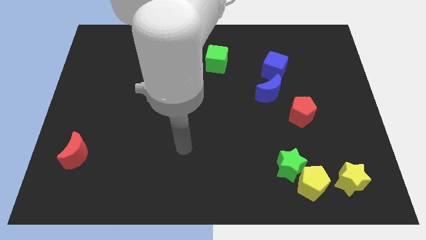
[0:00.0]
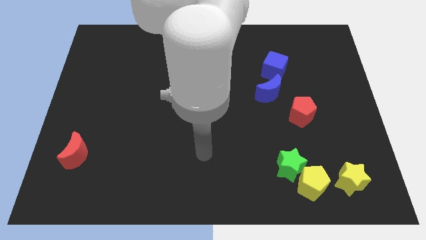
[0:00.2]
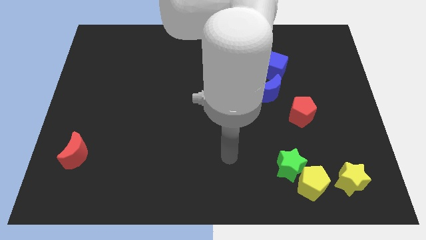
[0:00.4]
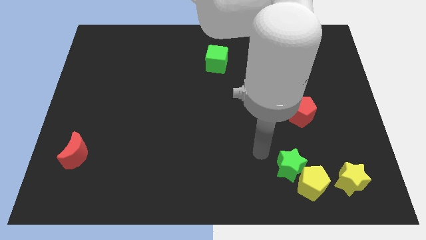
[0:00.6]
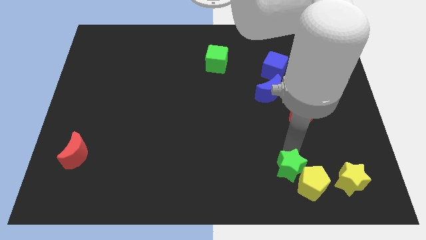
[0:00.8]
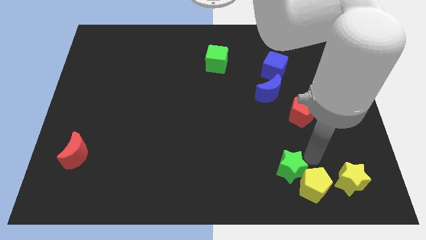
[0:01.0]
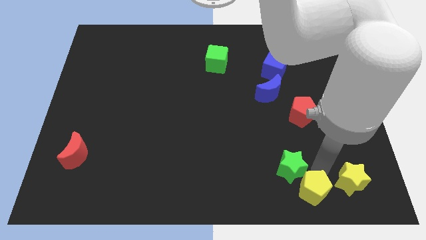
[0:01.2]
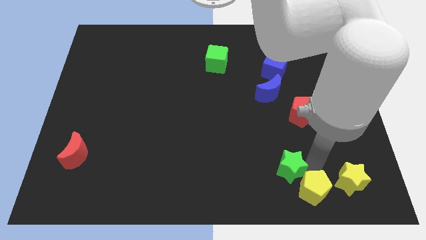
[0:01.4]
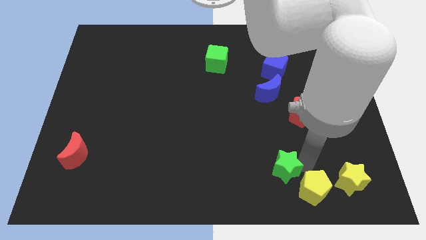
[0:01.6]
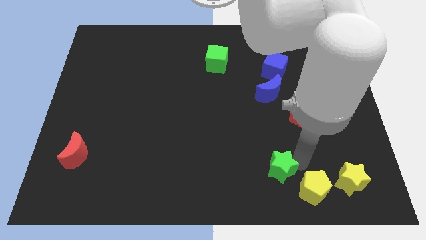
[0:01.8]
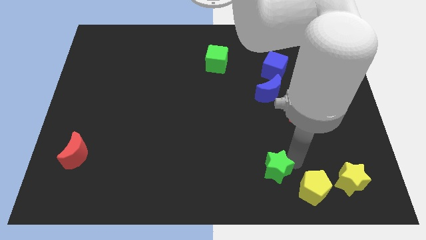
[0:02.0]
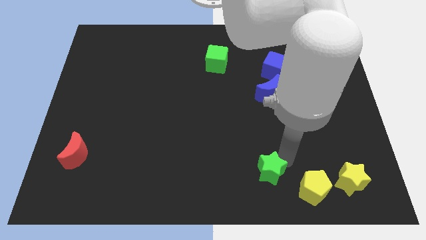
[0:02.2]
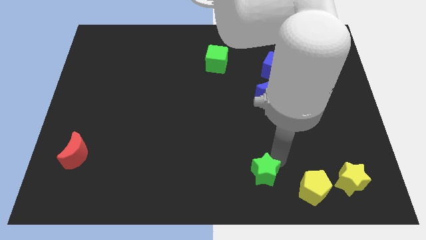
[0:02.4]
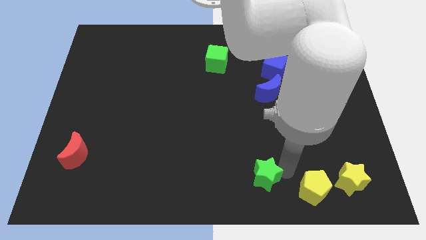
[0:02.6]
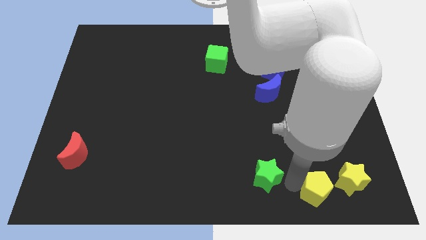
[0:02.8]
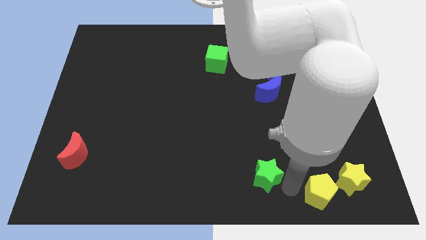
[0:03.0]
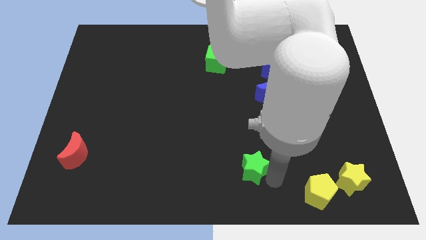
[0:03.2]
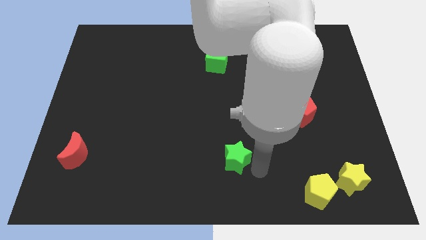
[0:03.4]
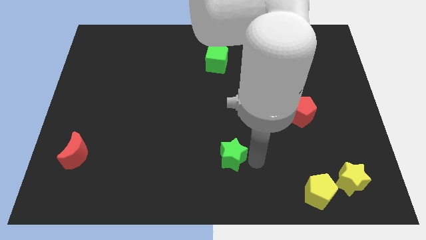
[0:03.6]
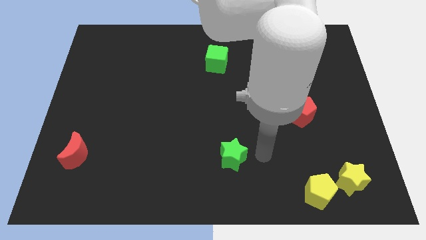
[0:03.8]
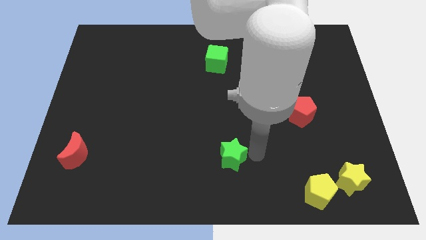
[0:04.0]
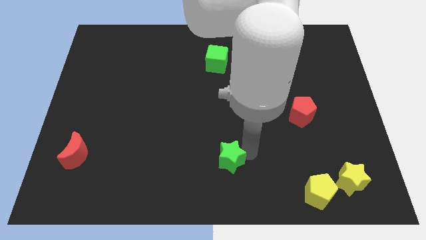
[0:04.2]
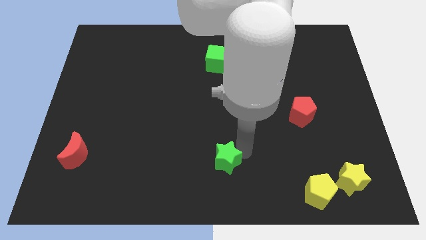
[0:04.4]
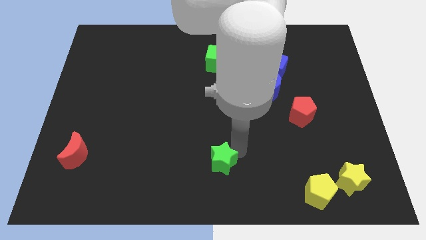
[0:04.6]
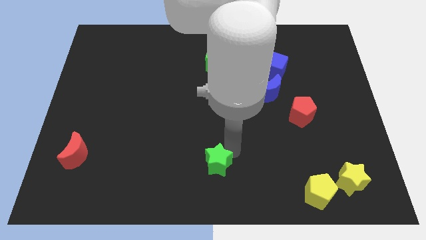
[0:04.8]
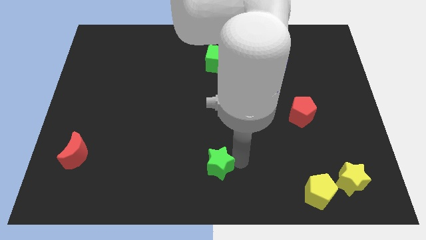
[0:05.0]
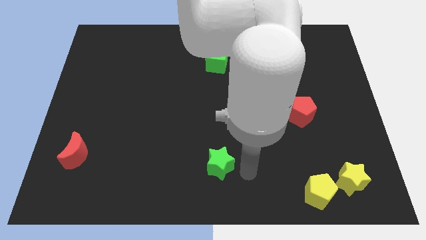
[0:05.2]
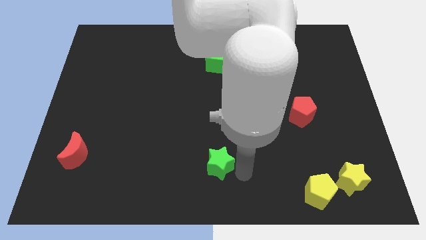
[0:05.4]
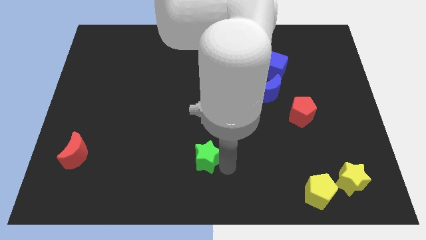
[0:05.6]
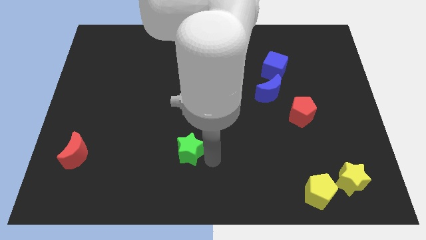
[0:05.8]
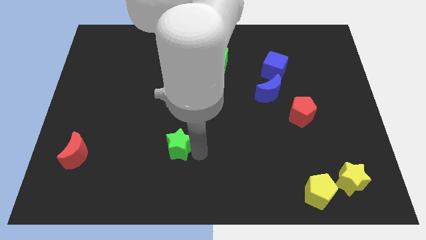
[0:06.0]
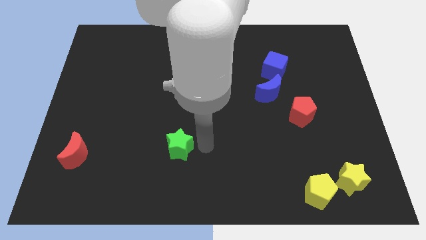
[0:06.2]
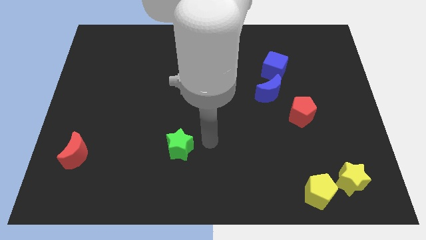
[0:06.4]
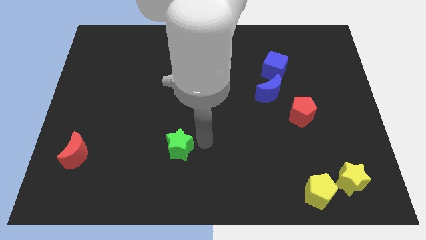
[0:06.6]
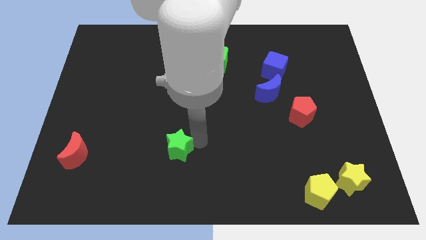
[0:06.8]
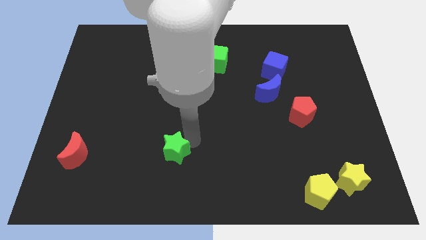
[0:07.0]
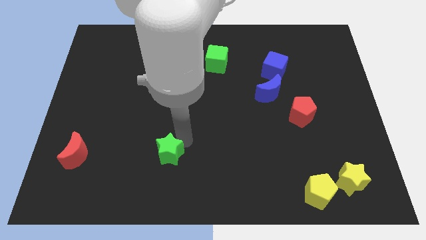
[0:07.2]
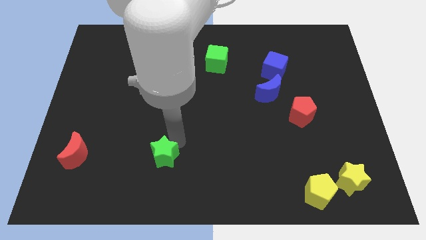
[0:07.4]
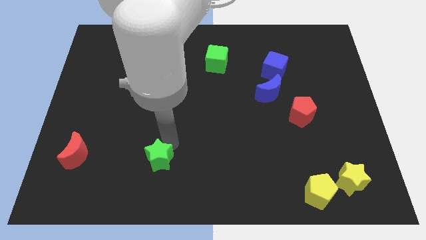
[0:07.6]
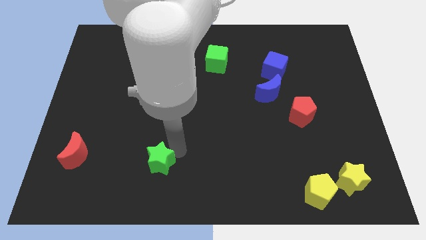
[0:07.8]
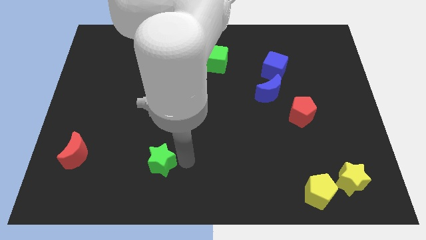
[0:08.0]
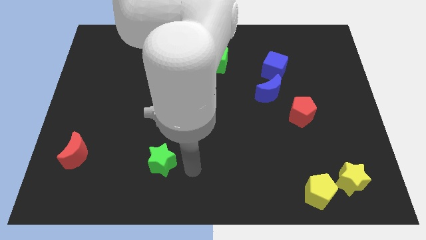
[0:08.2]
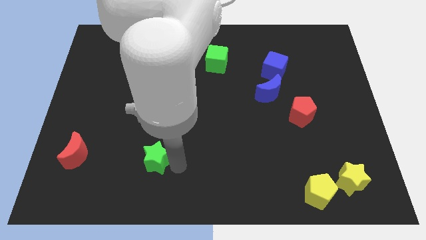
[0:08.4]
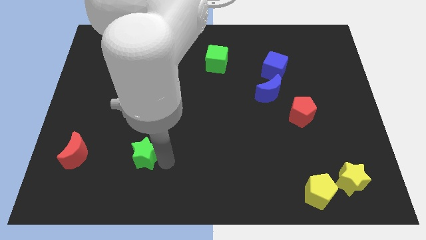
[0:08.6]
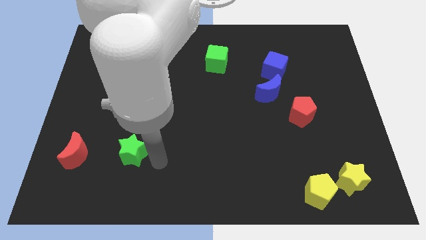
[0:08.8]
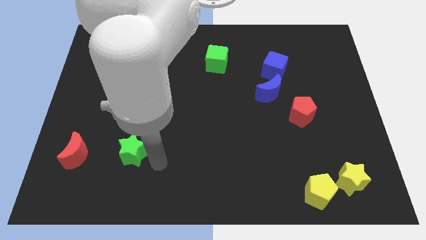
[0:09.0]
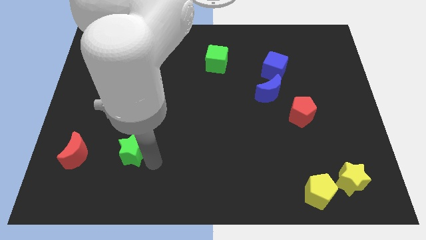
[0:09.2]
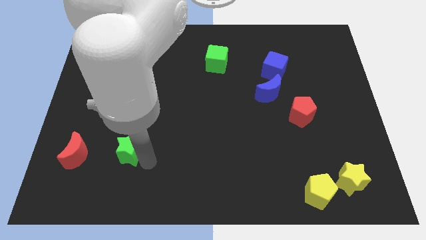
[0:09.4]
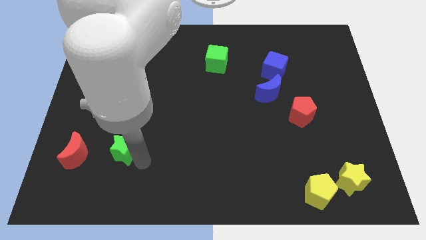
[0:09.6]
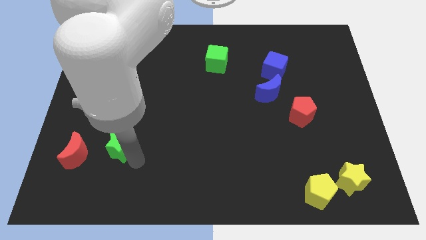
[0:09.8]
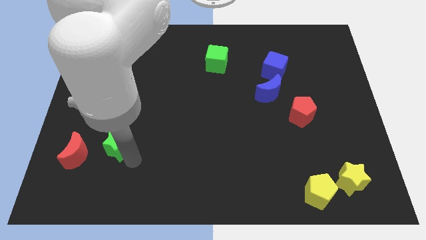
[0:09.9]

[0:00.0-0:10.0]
push the green star to the top right of the red moon

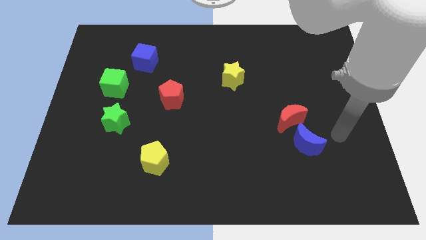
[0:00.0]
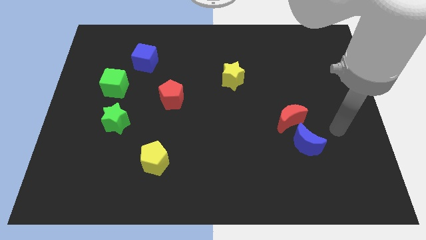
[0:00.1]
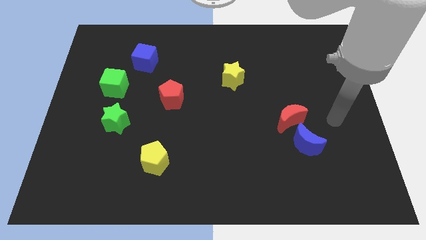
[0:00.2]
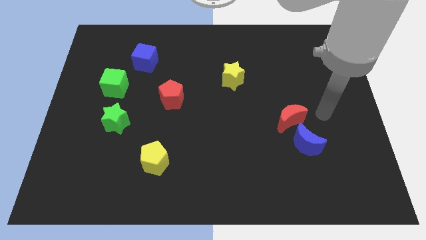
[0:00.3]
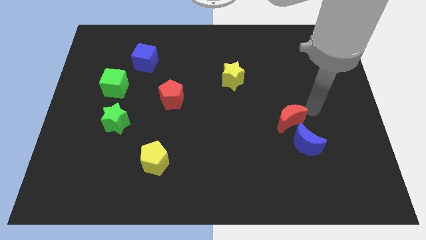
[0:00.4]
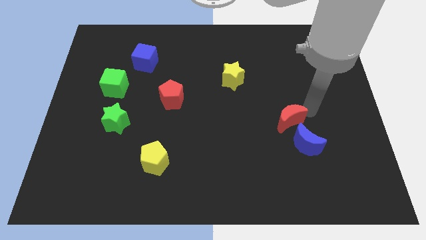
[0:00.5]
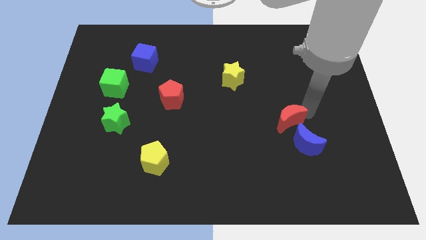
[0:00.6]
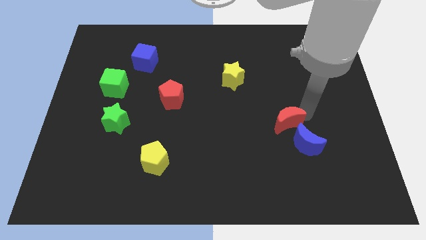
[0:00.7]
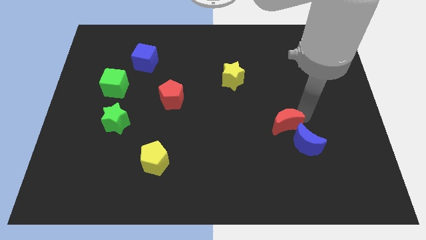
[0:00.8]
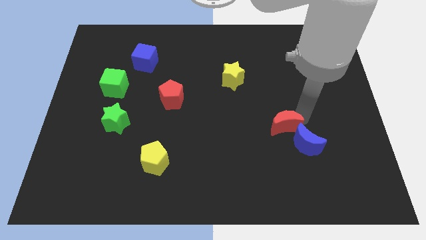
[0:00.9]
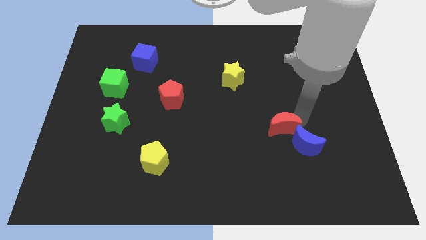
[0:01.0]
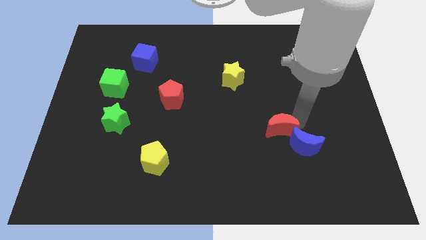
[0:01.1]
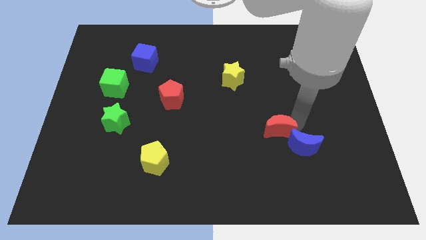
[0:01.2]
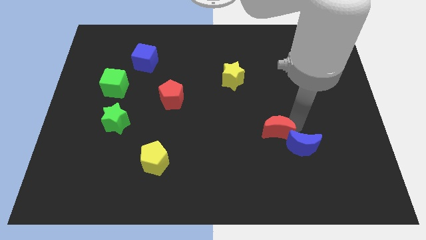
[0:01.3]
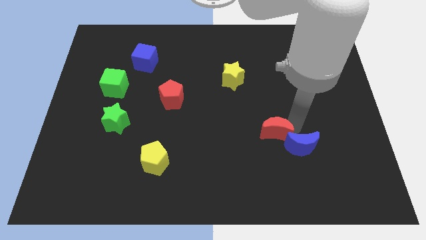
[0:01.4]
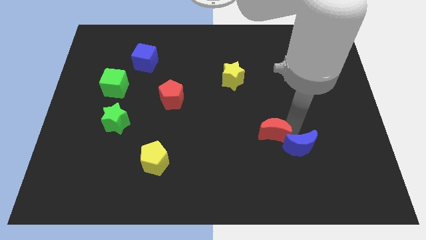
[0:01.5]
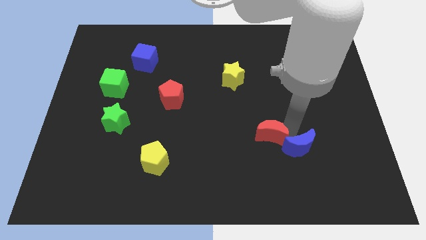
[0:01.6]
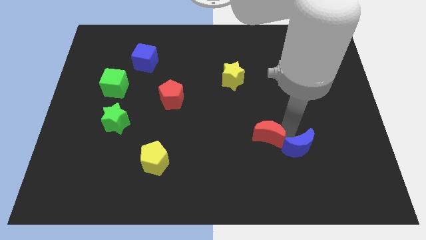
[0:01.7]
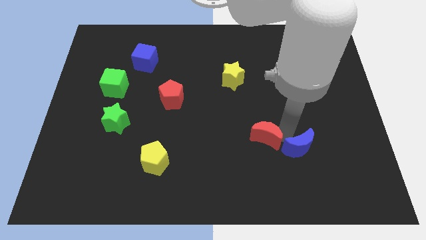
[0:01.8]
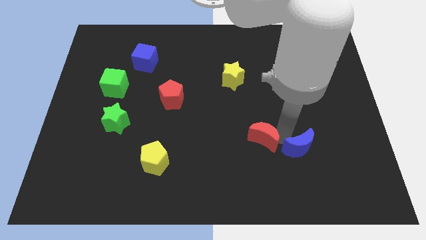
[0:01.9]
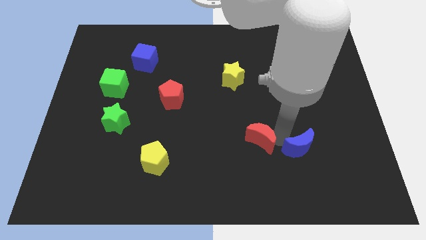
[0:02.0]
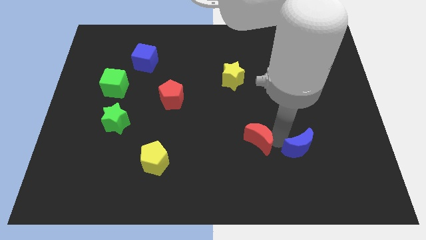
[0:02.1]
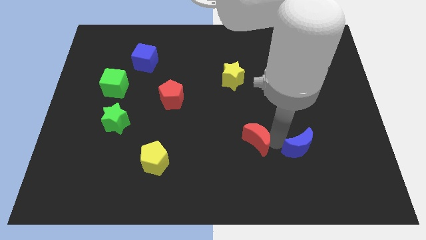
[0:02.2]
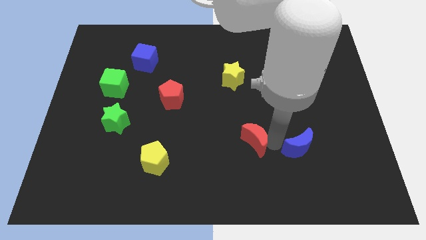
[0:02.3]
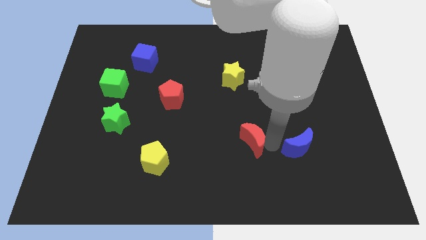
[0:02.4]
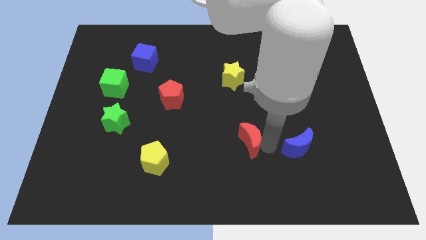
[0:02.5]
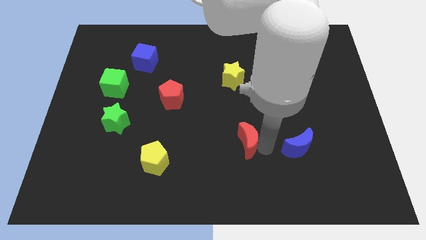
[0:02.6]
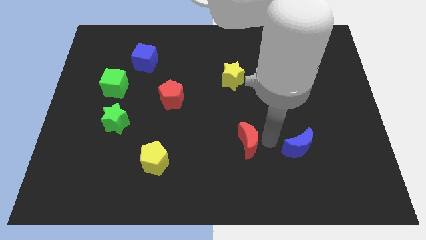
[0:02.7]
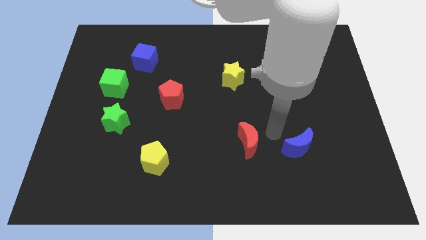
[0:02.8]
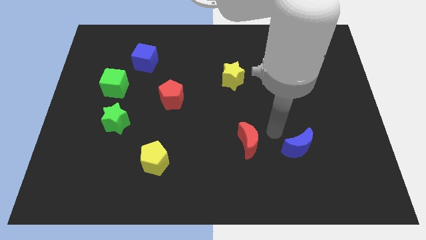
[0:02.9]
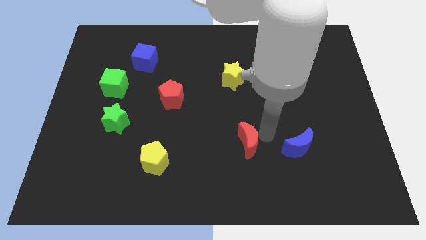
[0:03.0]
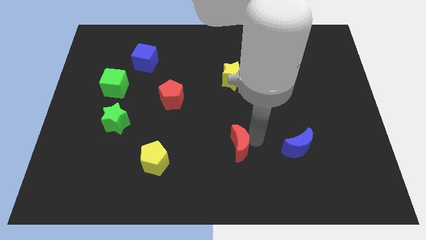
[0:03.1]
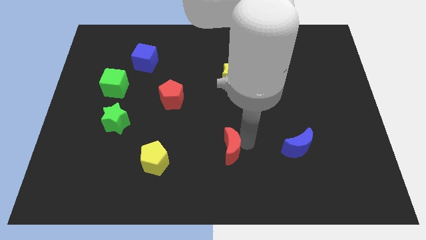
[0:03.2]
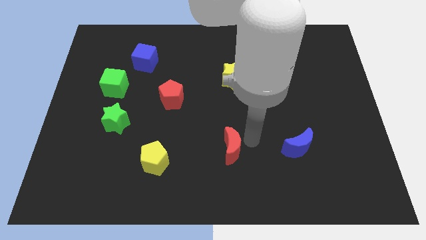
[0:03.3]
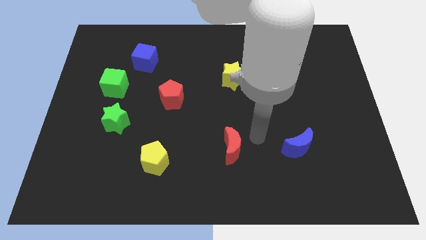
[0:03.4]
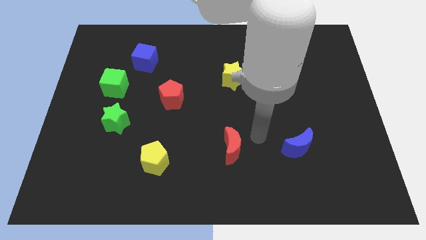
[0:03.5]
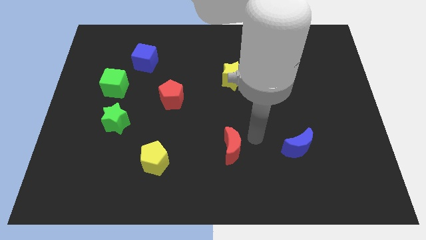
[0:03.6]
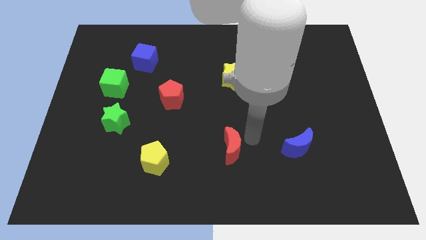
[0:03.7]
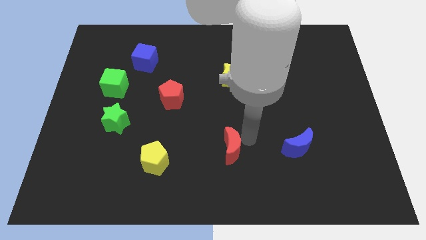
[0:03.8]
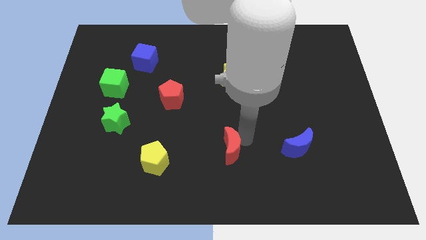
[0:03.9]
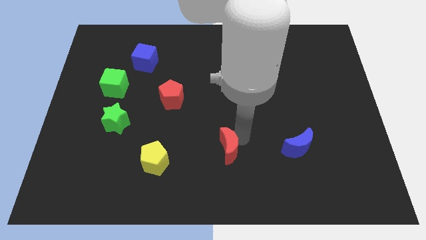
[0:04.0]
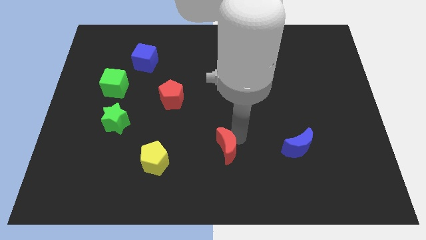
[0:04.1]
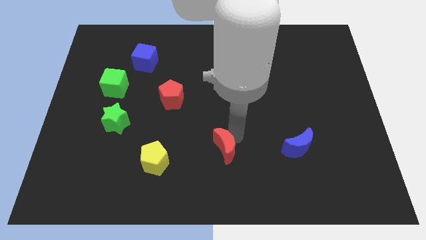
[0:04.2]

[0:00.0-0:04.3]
slide the red moon to the right of the yellow pentagon
